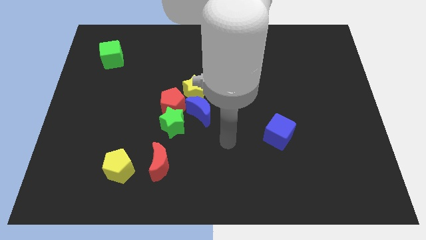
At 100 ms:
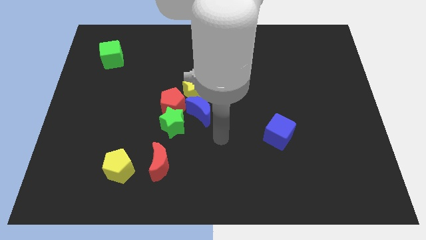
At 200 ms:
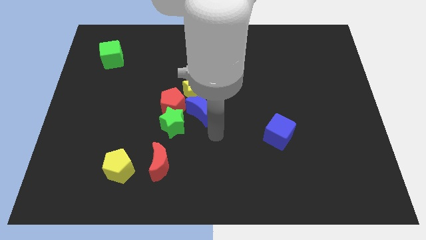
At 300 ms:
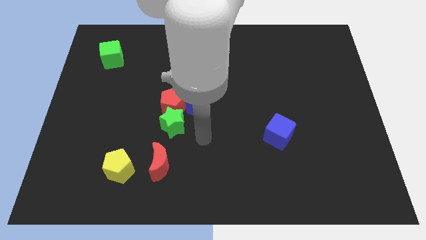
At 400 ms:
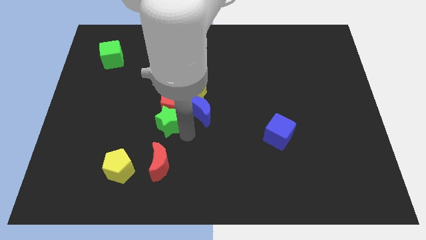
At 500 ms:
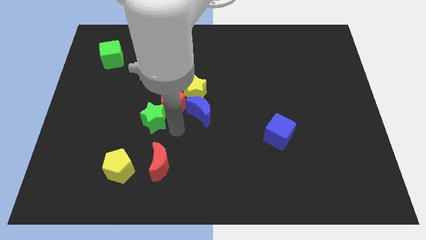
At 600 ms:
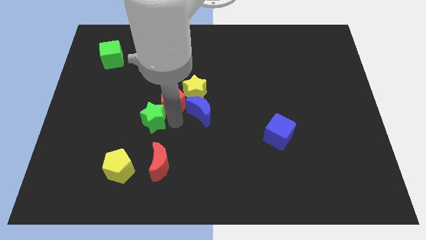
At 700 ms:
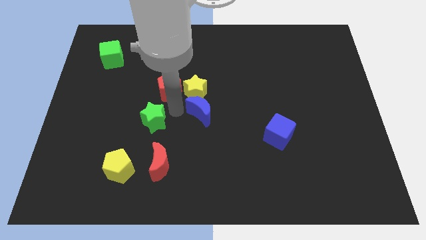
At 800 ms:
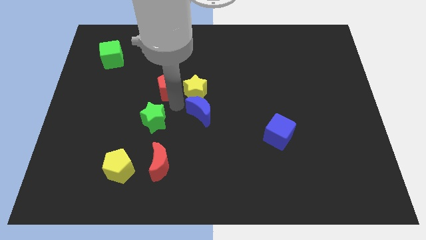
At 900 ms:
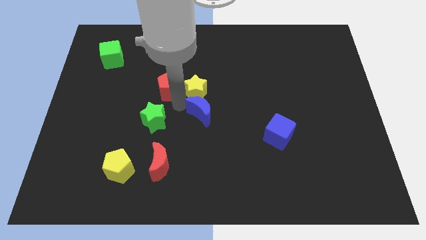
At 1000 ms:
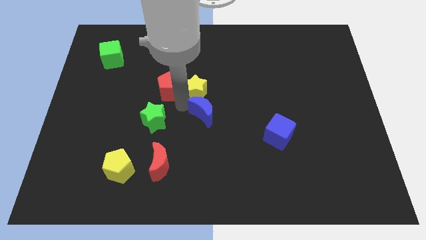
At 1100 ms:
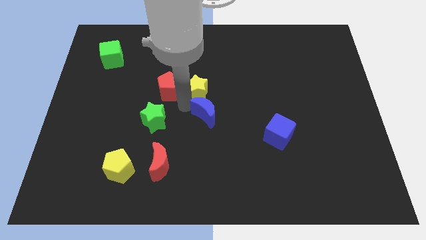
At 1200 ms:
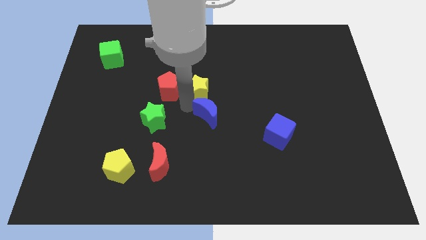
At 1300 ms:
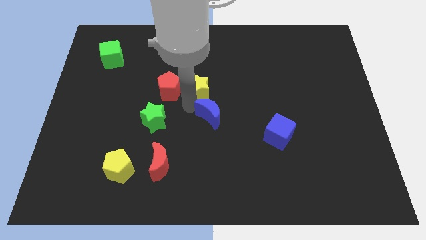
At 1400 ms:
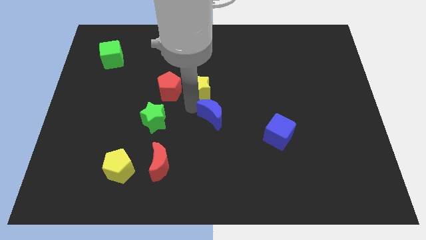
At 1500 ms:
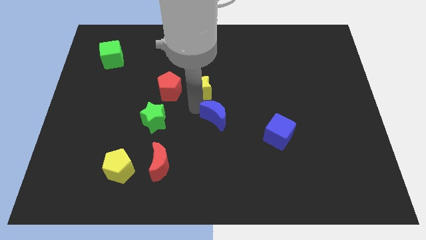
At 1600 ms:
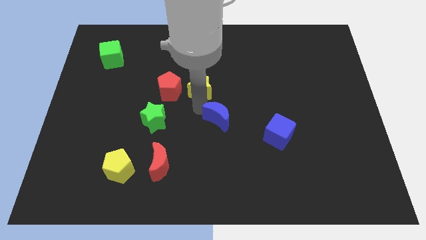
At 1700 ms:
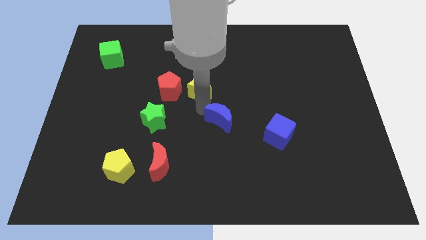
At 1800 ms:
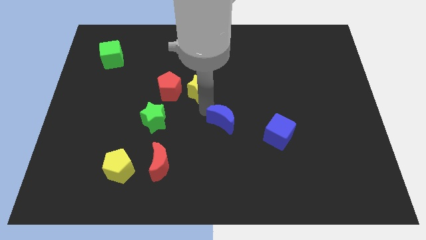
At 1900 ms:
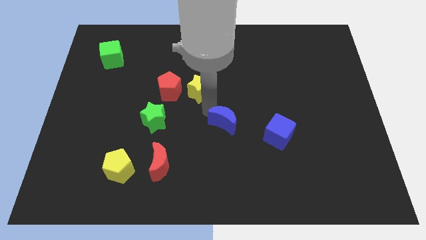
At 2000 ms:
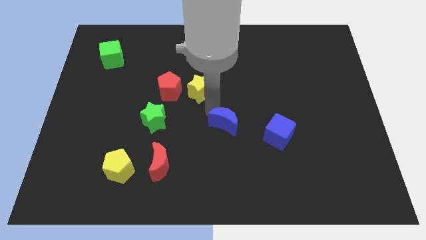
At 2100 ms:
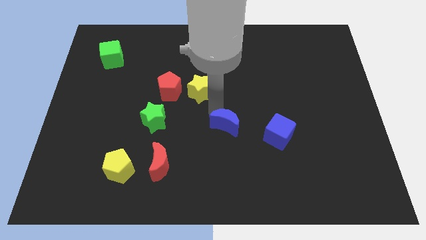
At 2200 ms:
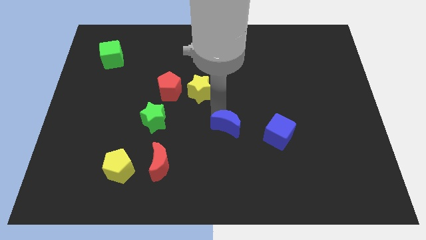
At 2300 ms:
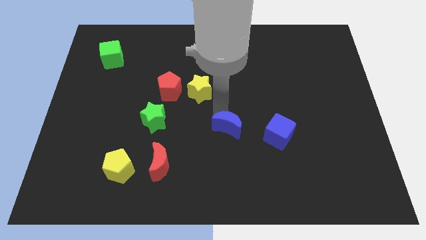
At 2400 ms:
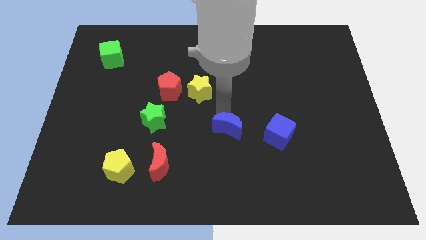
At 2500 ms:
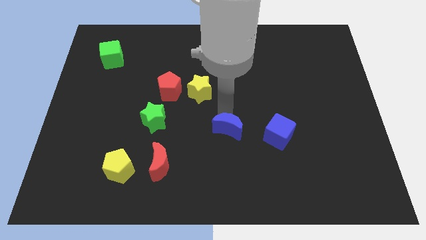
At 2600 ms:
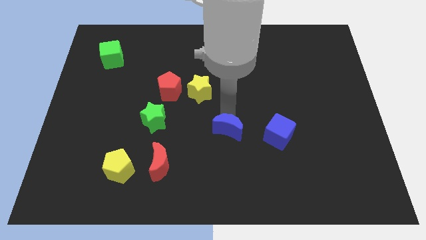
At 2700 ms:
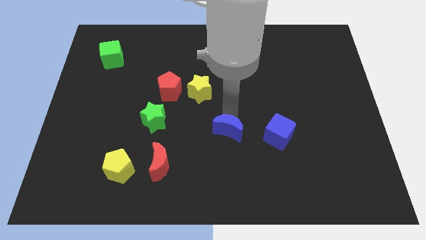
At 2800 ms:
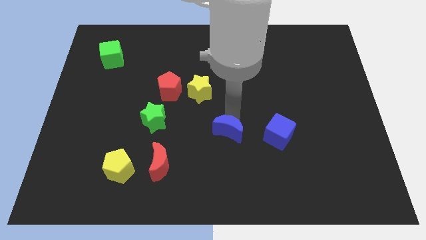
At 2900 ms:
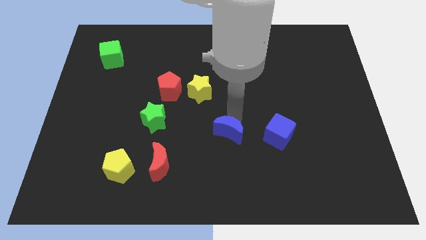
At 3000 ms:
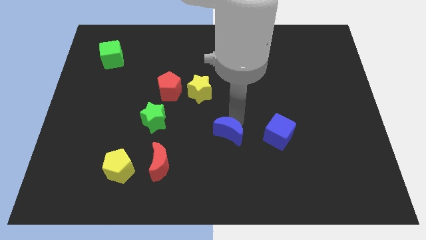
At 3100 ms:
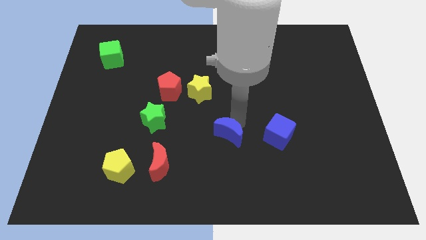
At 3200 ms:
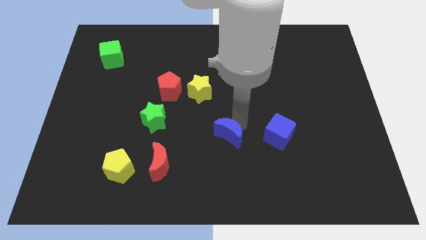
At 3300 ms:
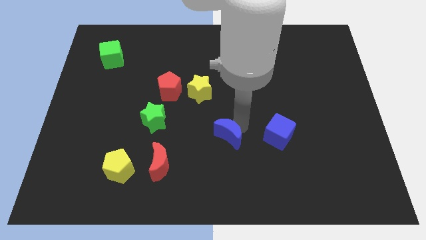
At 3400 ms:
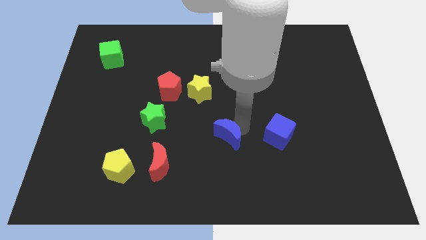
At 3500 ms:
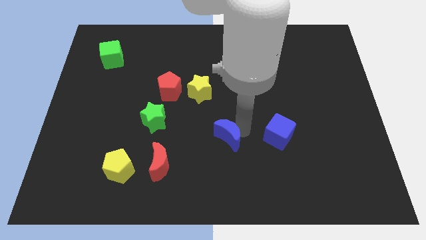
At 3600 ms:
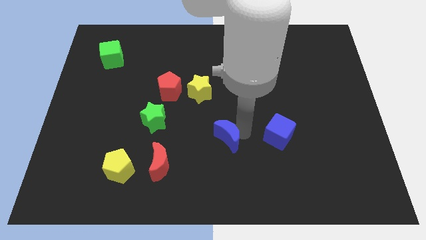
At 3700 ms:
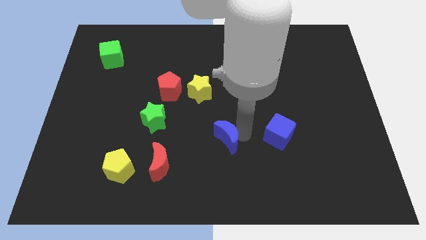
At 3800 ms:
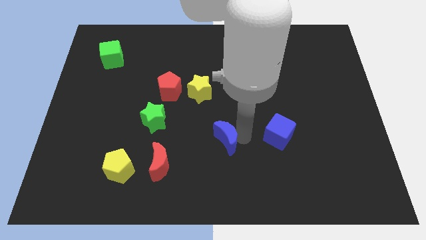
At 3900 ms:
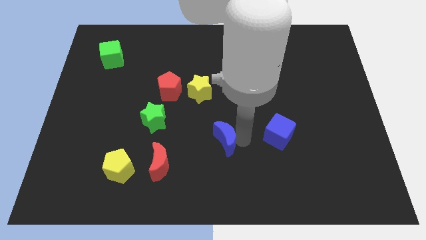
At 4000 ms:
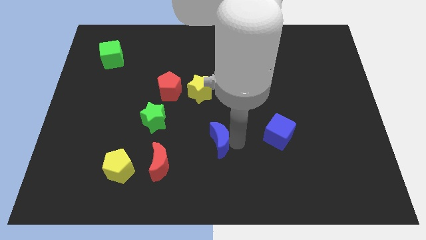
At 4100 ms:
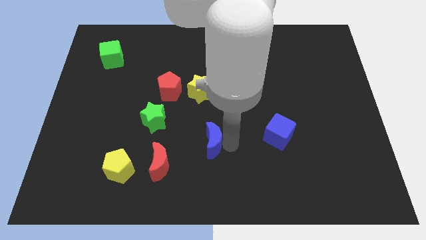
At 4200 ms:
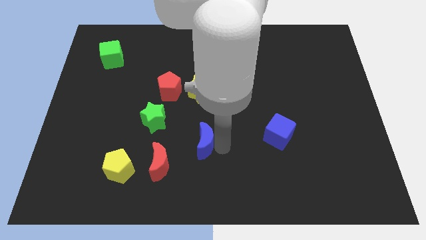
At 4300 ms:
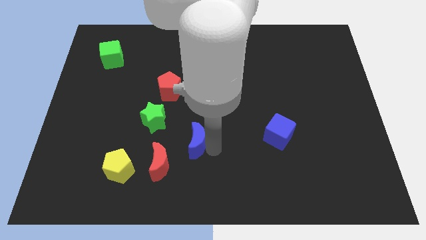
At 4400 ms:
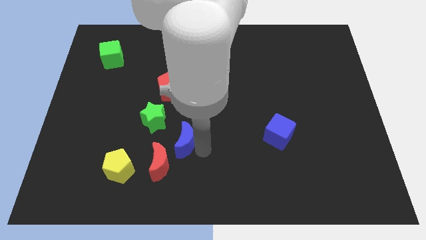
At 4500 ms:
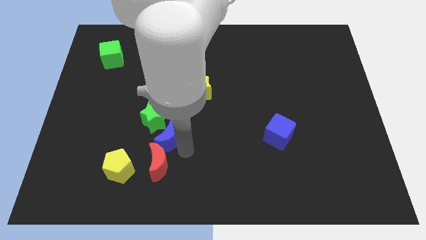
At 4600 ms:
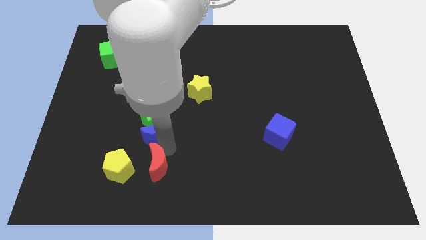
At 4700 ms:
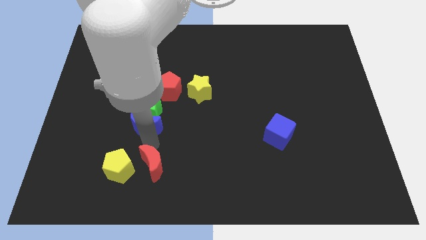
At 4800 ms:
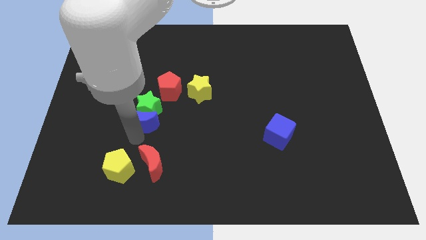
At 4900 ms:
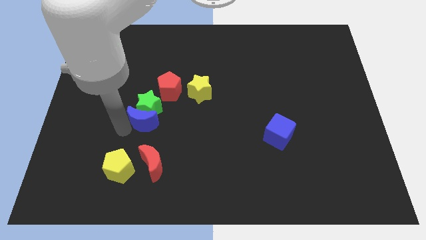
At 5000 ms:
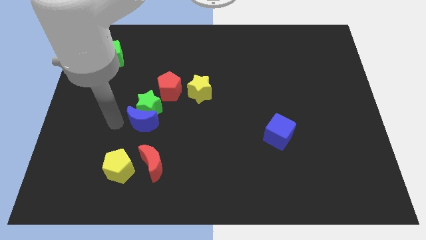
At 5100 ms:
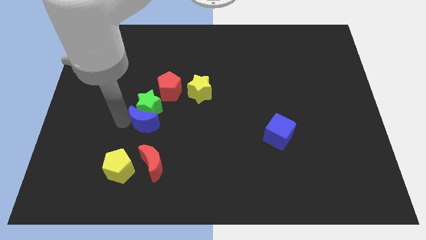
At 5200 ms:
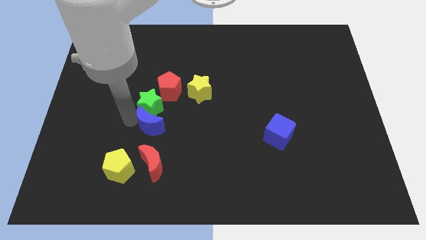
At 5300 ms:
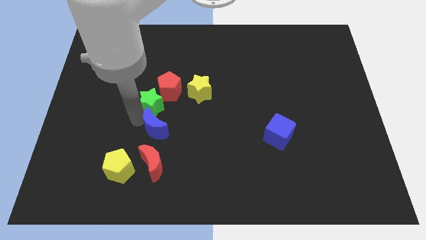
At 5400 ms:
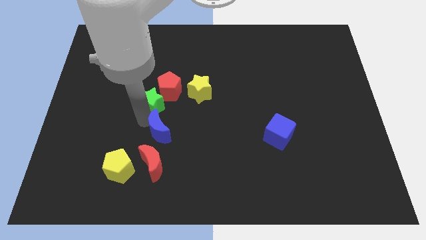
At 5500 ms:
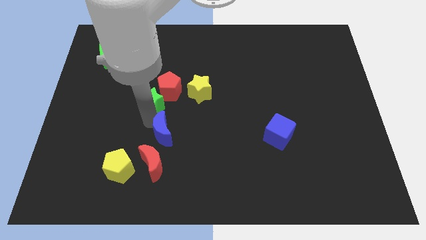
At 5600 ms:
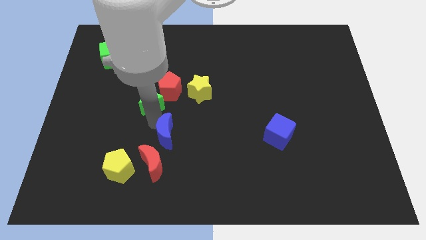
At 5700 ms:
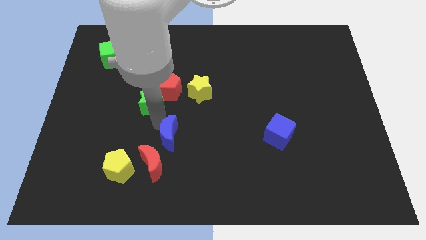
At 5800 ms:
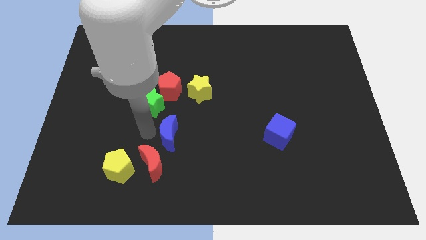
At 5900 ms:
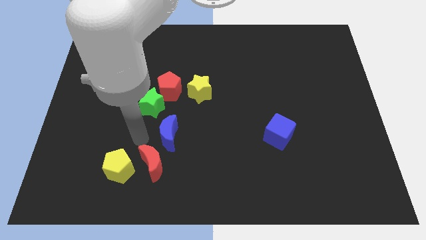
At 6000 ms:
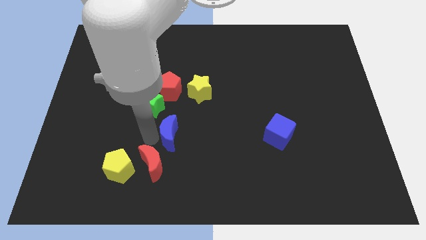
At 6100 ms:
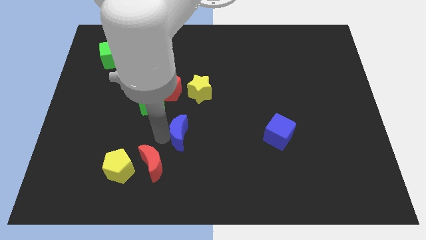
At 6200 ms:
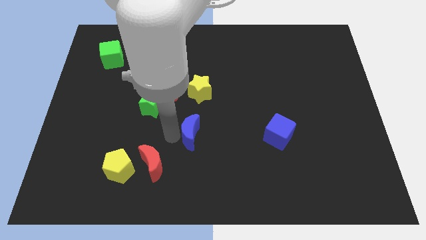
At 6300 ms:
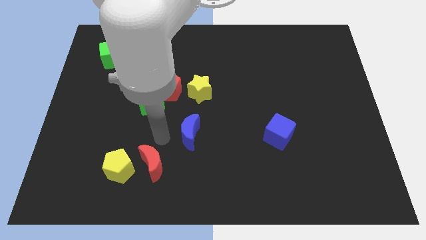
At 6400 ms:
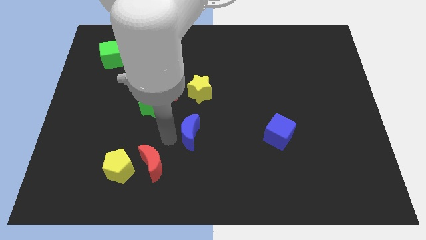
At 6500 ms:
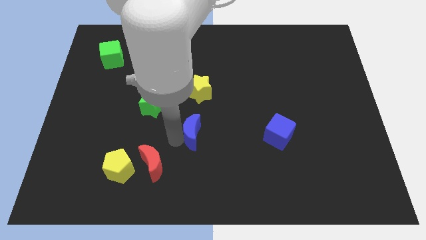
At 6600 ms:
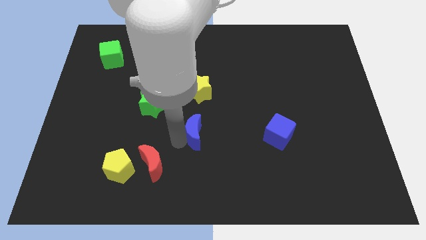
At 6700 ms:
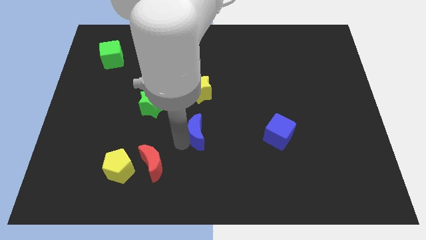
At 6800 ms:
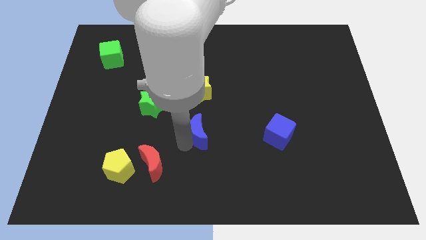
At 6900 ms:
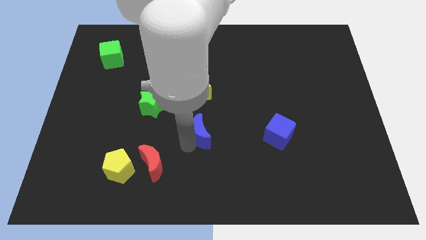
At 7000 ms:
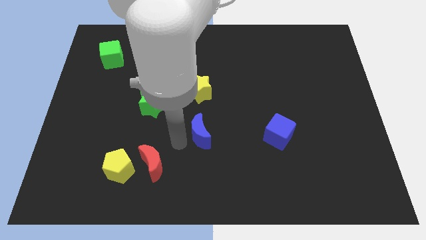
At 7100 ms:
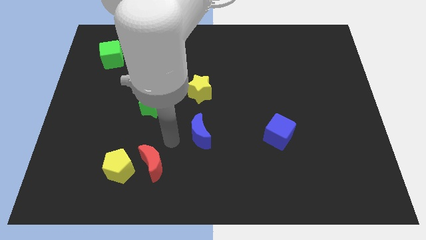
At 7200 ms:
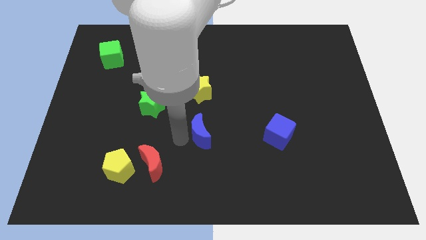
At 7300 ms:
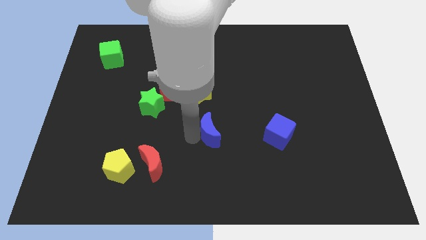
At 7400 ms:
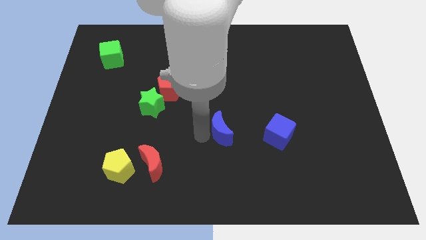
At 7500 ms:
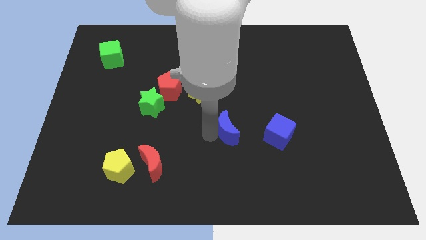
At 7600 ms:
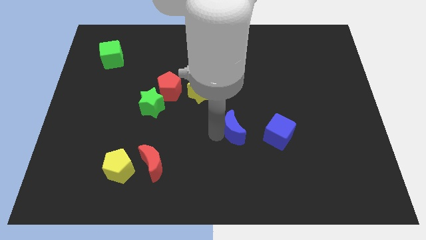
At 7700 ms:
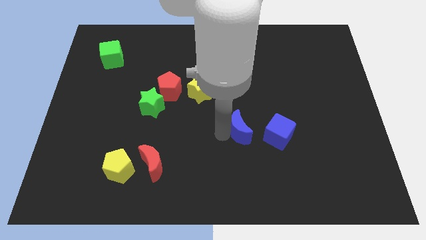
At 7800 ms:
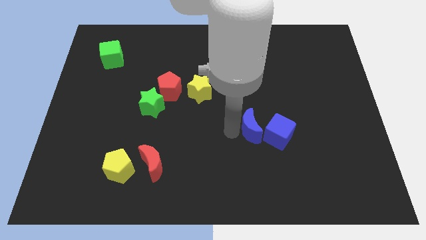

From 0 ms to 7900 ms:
put the blue moon to the blue cube
